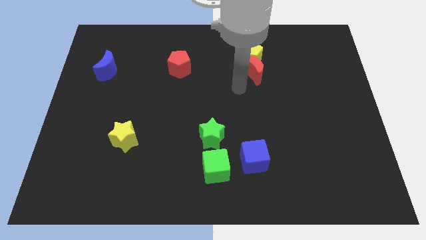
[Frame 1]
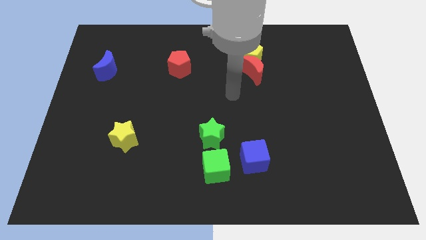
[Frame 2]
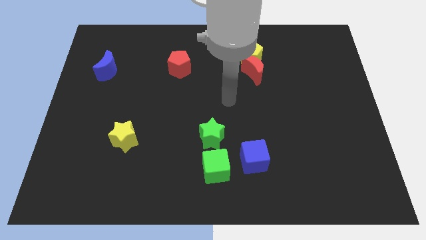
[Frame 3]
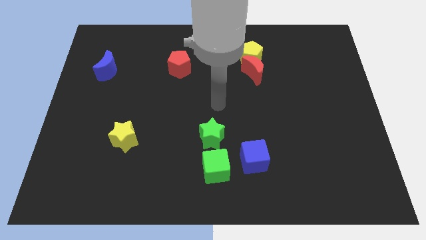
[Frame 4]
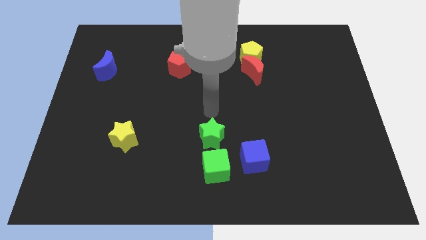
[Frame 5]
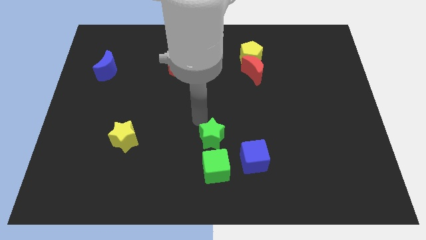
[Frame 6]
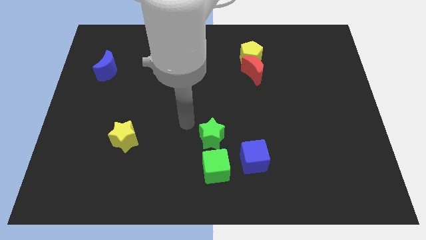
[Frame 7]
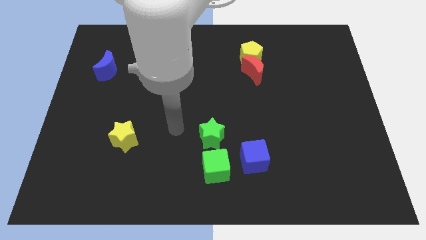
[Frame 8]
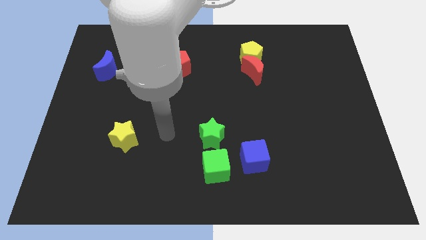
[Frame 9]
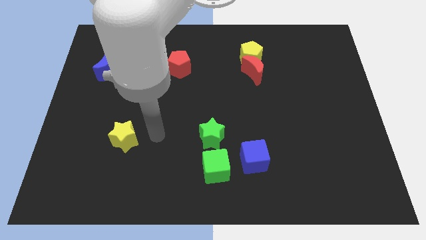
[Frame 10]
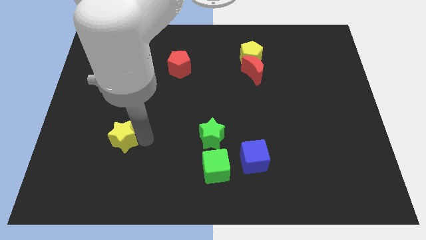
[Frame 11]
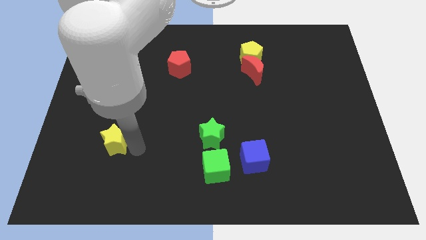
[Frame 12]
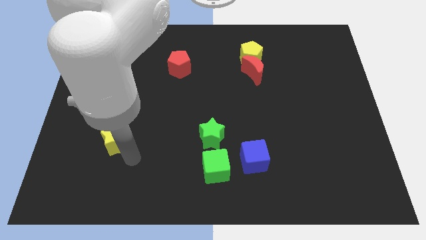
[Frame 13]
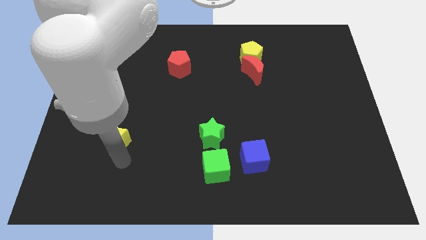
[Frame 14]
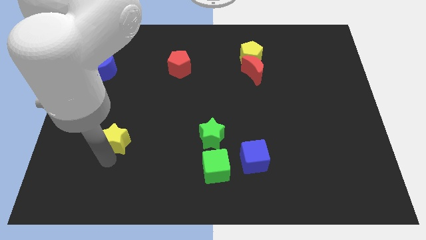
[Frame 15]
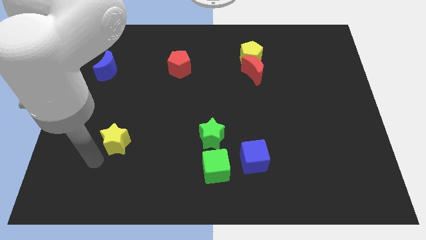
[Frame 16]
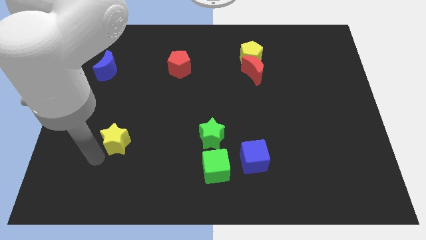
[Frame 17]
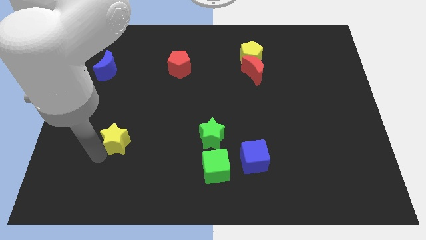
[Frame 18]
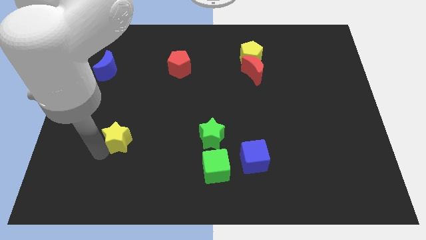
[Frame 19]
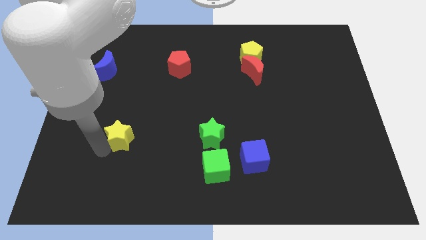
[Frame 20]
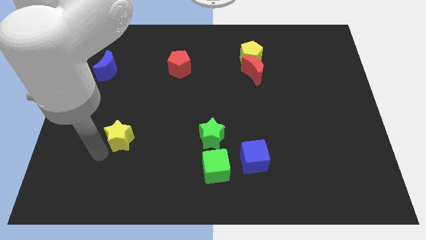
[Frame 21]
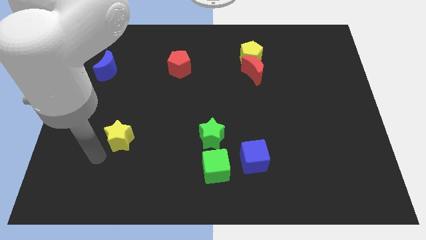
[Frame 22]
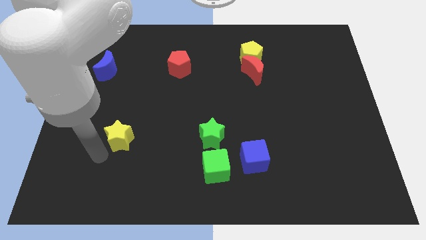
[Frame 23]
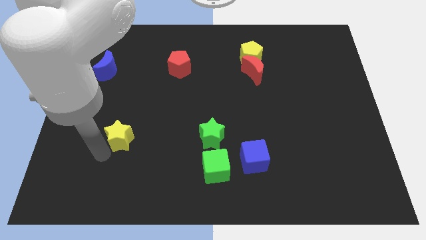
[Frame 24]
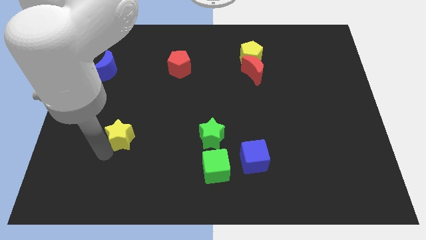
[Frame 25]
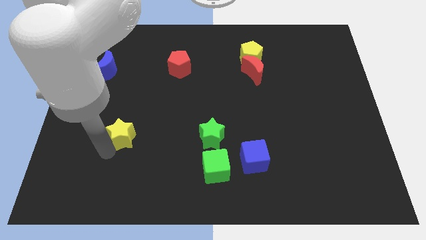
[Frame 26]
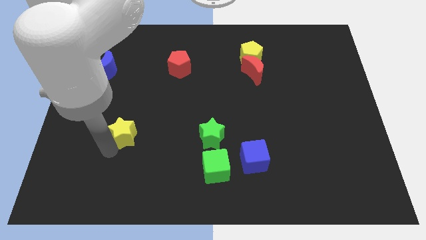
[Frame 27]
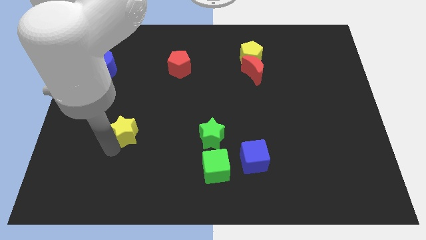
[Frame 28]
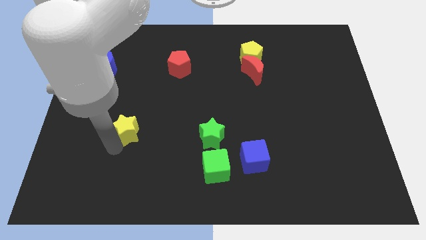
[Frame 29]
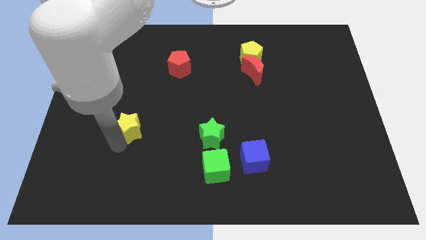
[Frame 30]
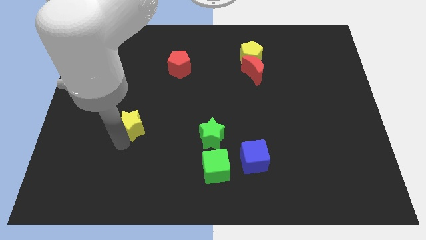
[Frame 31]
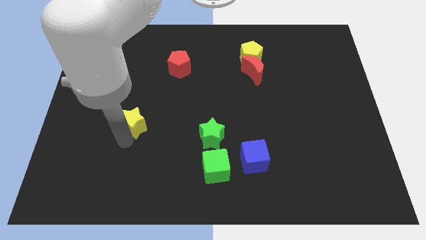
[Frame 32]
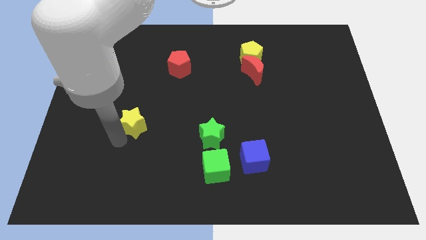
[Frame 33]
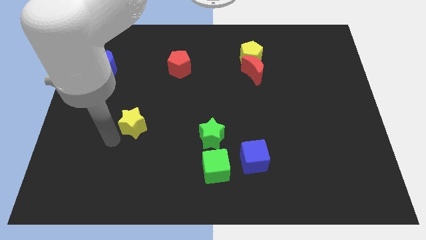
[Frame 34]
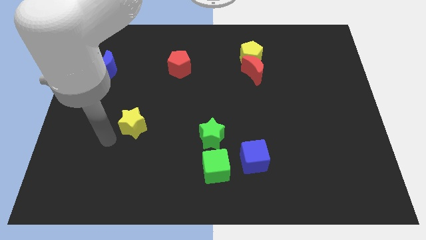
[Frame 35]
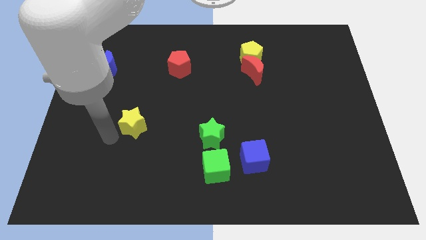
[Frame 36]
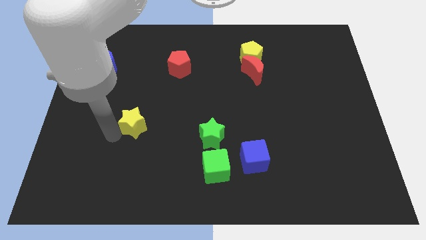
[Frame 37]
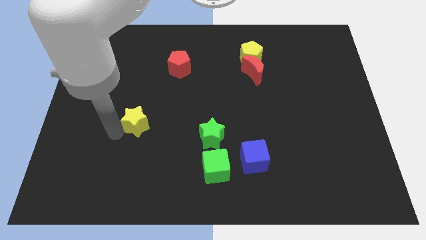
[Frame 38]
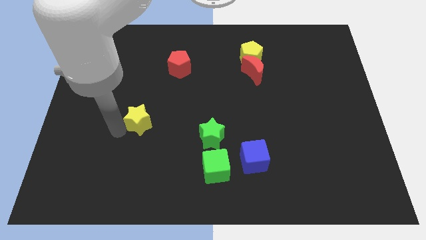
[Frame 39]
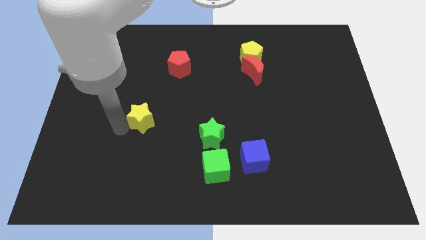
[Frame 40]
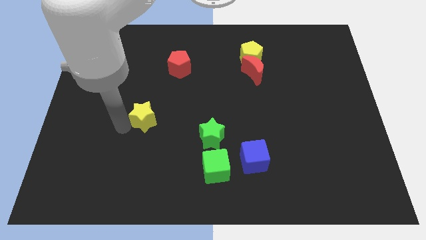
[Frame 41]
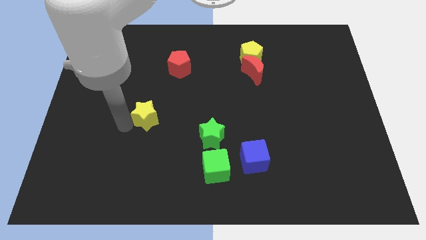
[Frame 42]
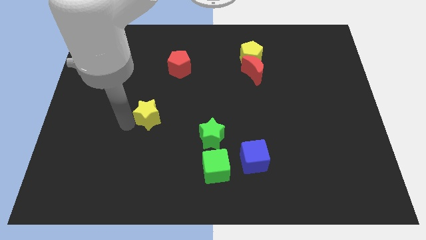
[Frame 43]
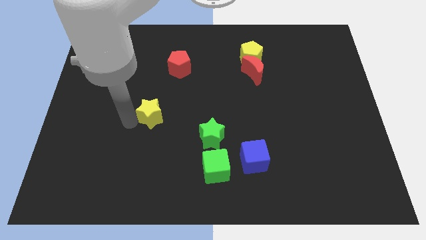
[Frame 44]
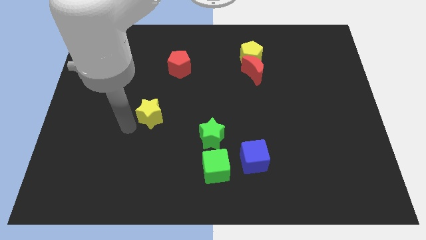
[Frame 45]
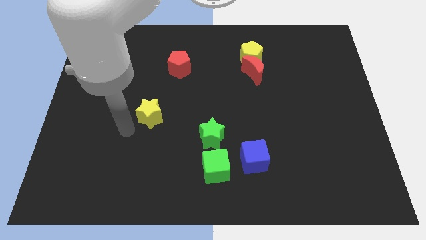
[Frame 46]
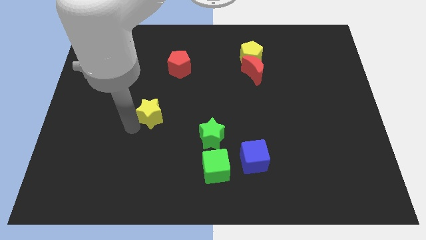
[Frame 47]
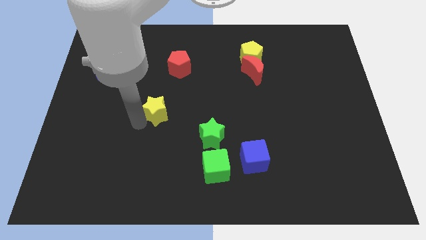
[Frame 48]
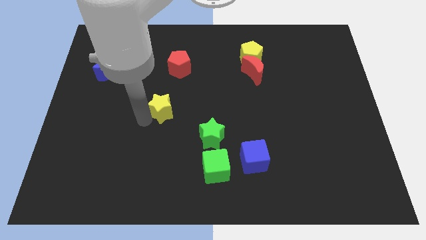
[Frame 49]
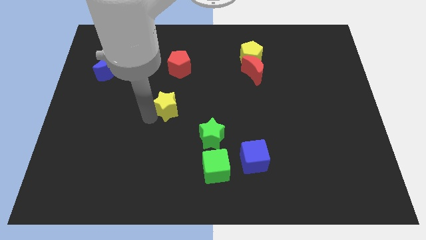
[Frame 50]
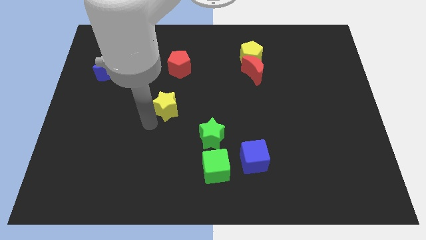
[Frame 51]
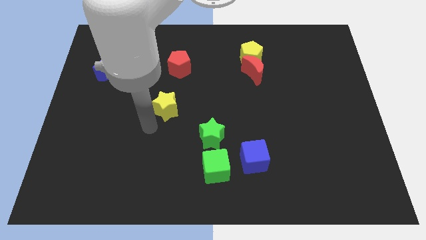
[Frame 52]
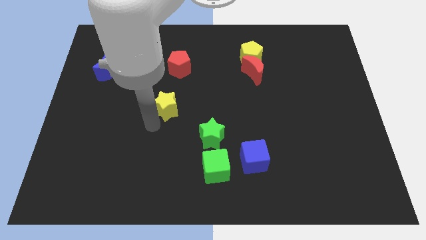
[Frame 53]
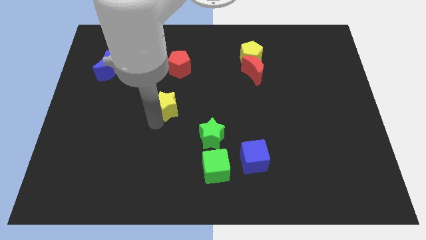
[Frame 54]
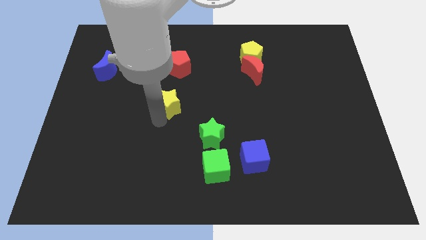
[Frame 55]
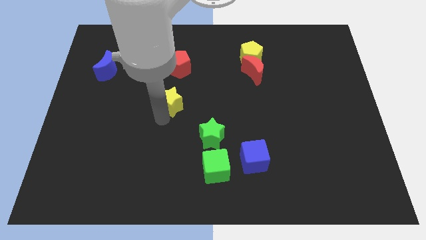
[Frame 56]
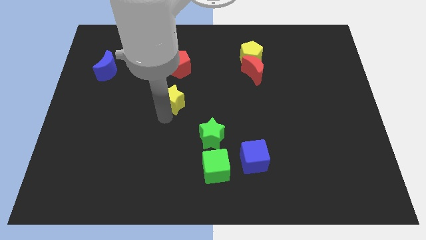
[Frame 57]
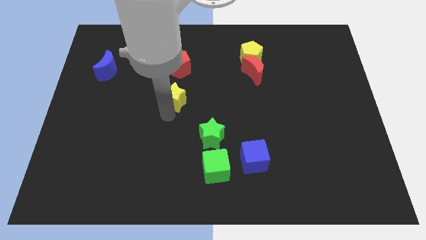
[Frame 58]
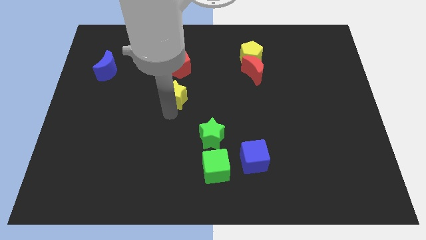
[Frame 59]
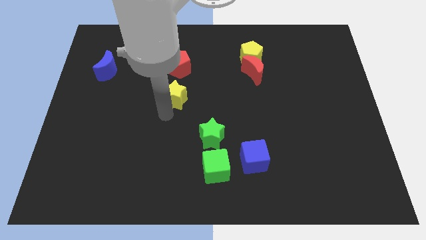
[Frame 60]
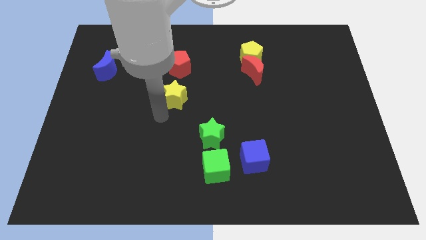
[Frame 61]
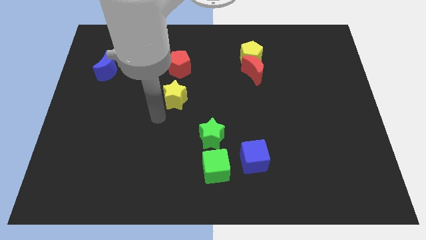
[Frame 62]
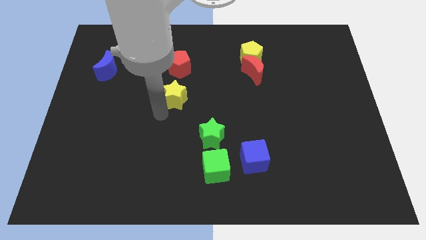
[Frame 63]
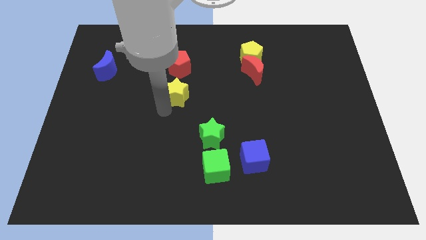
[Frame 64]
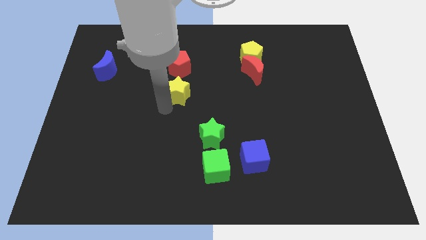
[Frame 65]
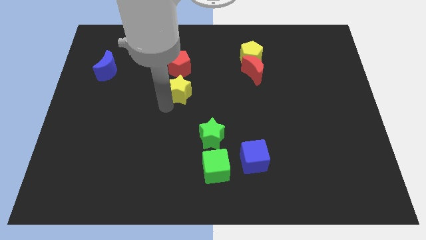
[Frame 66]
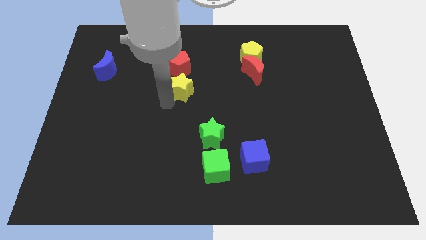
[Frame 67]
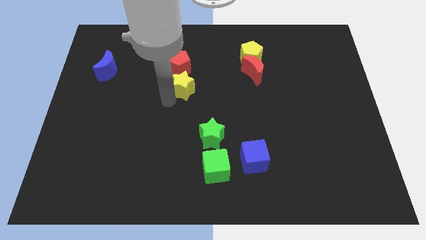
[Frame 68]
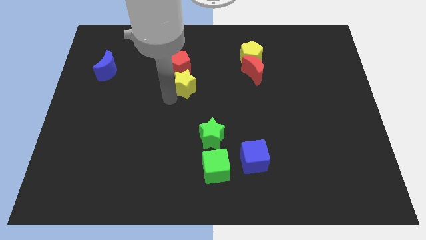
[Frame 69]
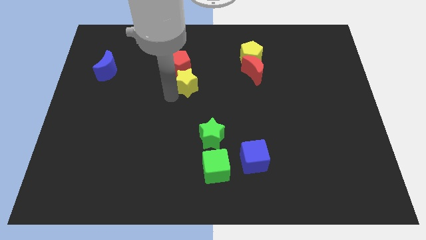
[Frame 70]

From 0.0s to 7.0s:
push the yellow star up and right

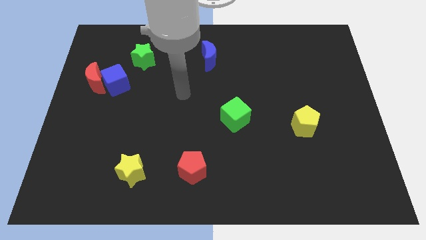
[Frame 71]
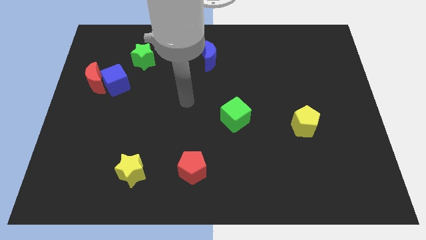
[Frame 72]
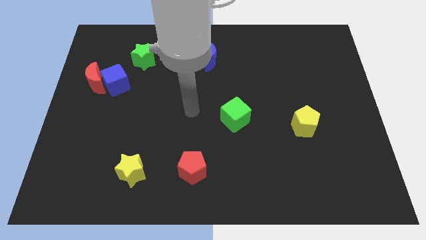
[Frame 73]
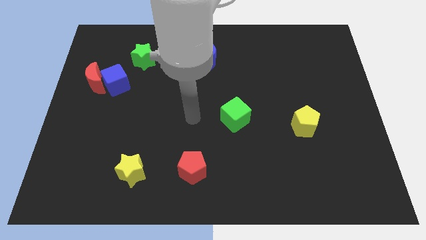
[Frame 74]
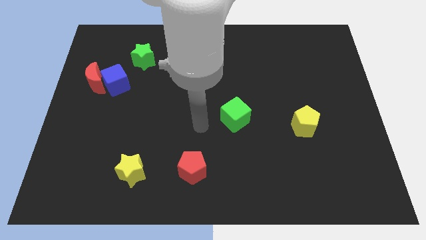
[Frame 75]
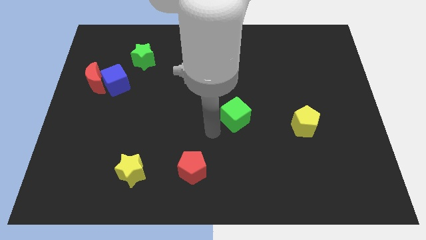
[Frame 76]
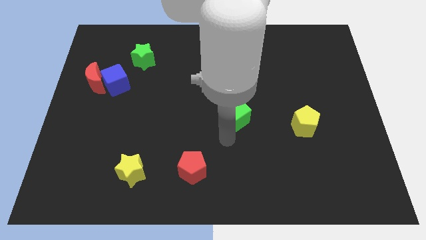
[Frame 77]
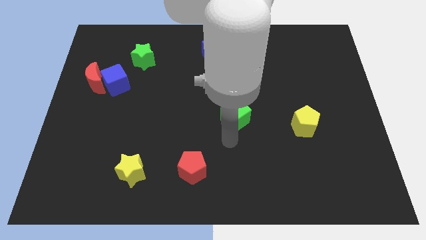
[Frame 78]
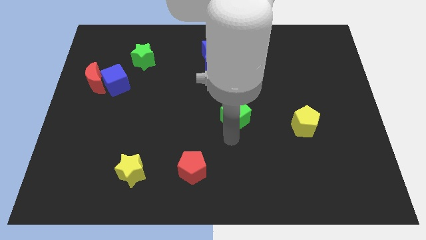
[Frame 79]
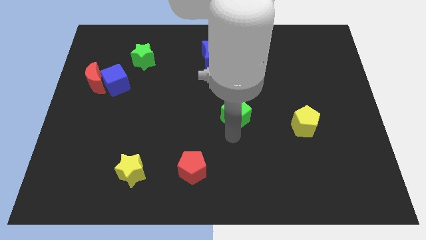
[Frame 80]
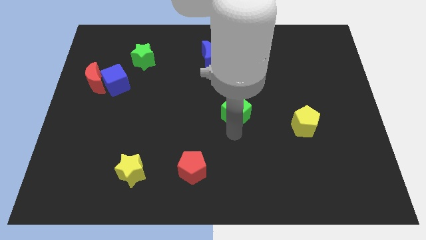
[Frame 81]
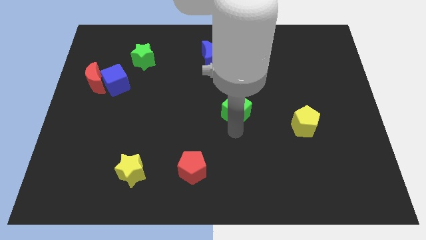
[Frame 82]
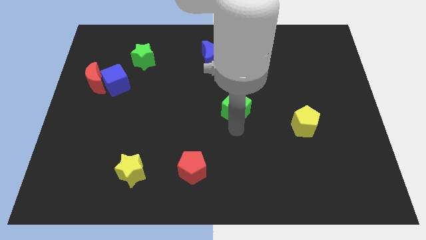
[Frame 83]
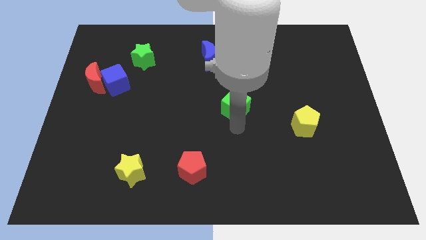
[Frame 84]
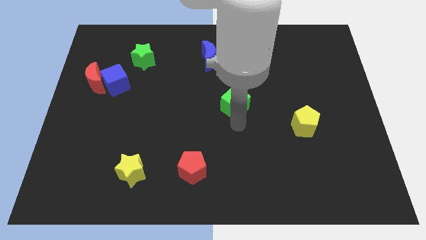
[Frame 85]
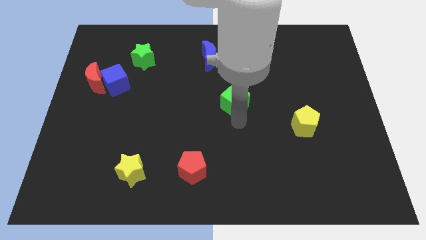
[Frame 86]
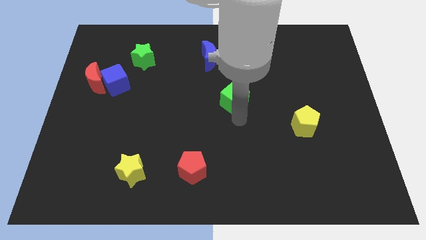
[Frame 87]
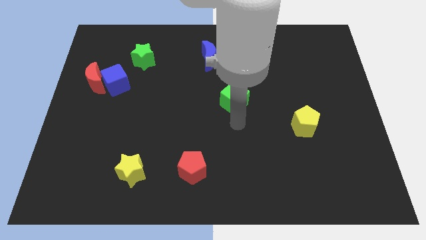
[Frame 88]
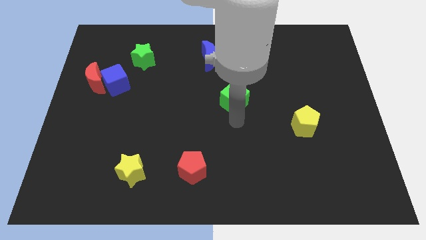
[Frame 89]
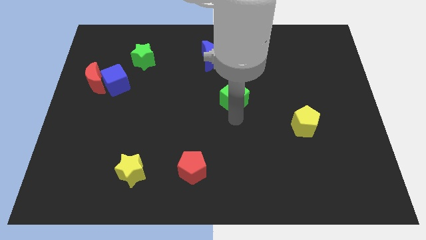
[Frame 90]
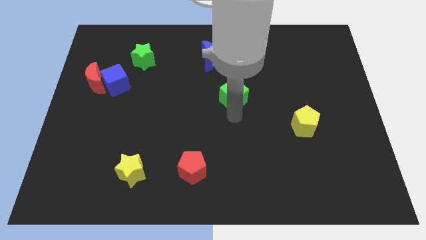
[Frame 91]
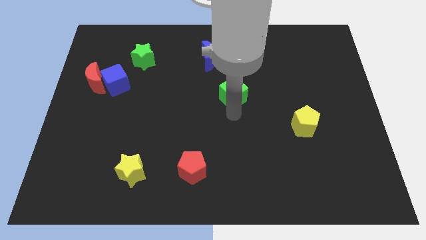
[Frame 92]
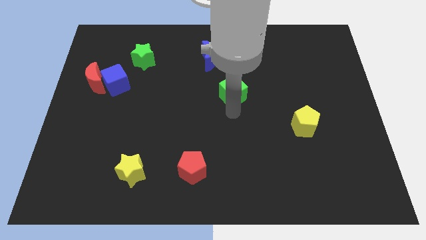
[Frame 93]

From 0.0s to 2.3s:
push the green cube slightly upwards
